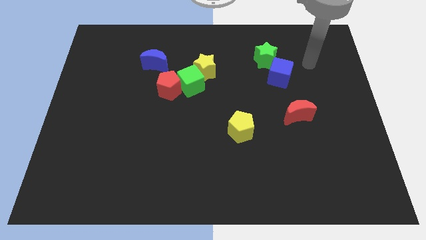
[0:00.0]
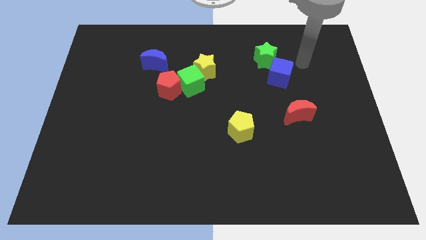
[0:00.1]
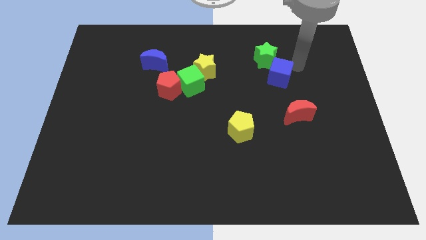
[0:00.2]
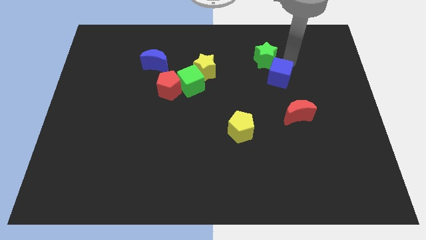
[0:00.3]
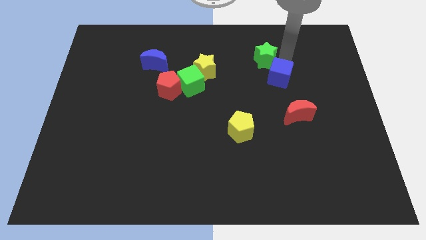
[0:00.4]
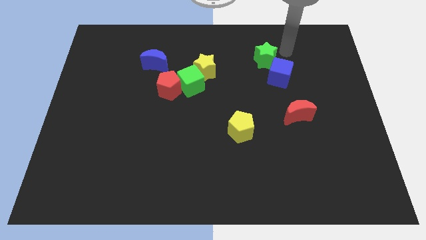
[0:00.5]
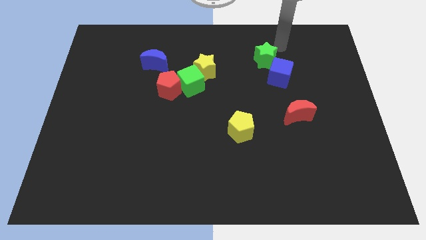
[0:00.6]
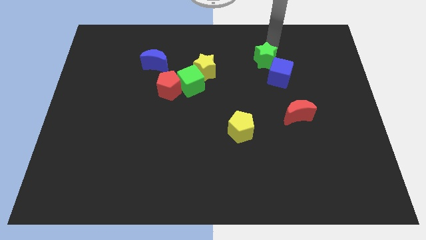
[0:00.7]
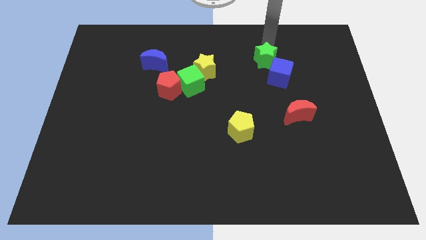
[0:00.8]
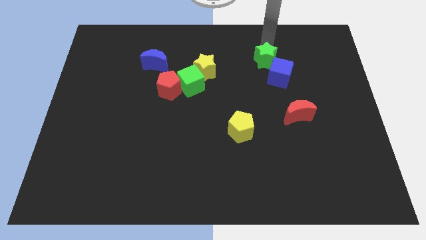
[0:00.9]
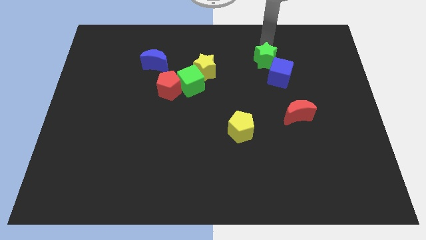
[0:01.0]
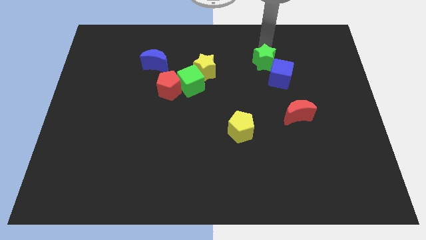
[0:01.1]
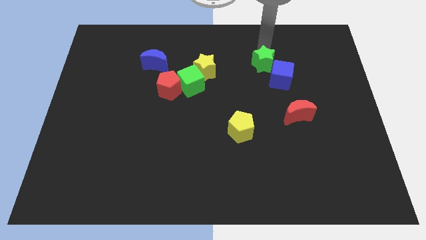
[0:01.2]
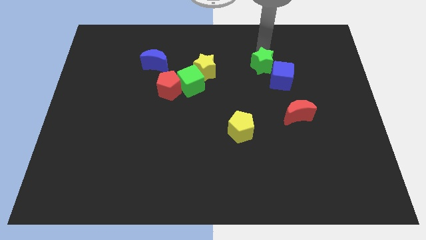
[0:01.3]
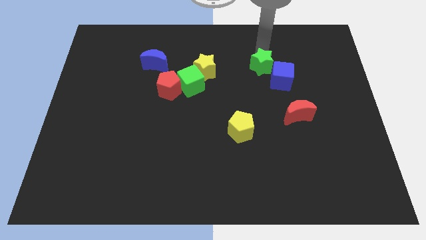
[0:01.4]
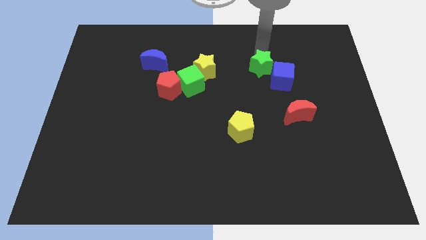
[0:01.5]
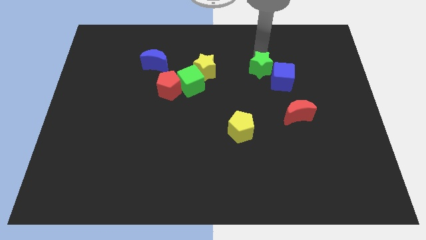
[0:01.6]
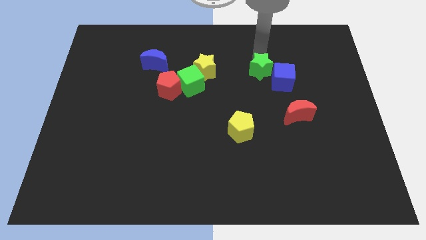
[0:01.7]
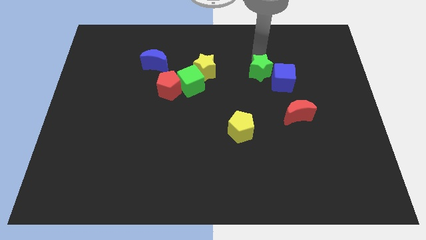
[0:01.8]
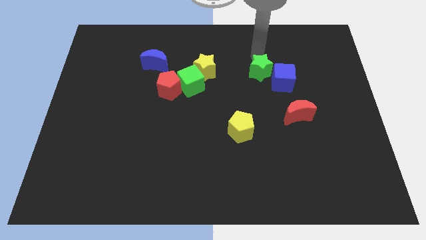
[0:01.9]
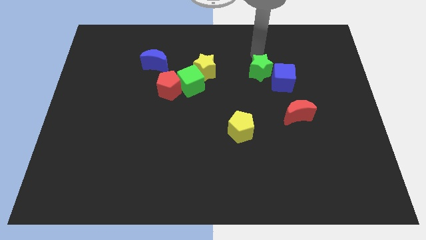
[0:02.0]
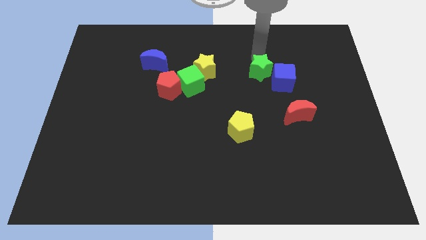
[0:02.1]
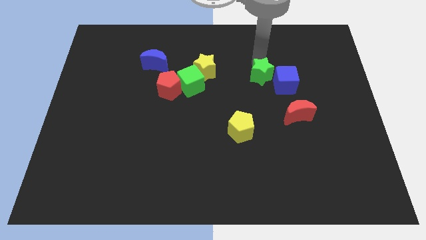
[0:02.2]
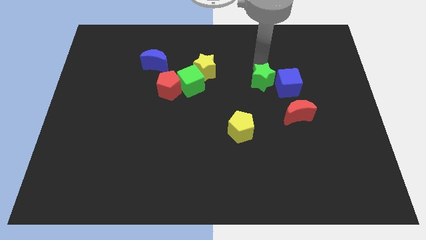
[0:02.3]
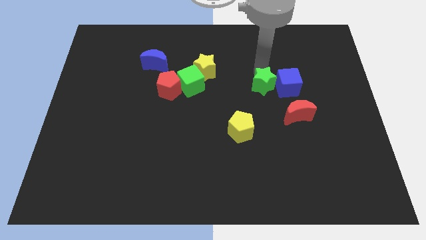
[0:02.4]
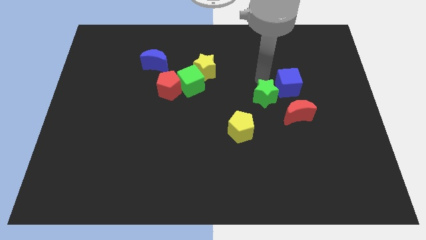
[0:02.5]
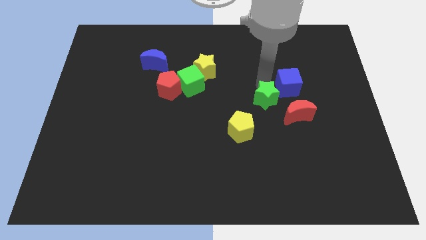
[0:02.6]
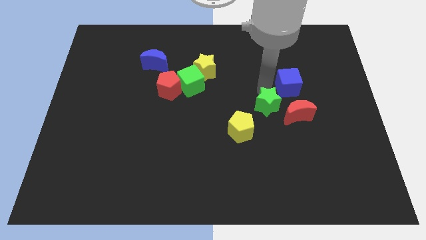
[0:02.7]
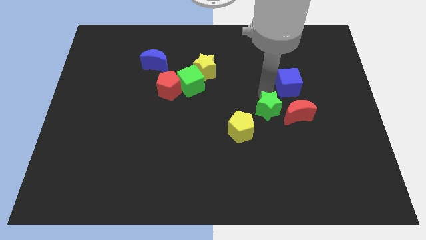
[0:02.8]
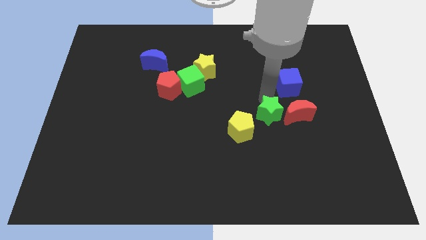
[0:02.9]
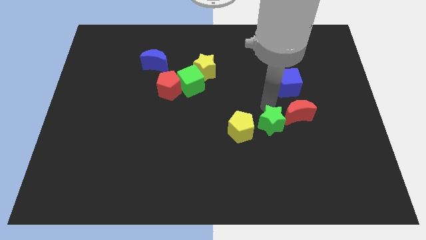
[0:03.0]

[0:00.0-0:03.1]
push the green star down

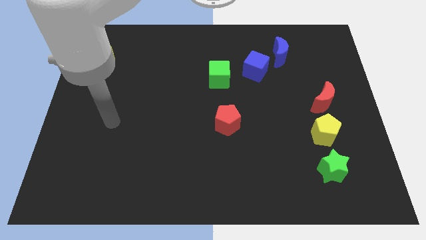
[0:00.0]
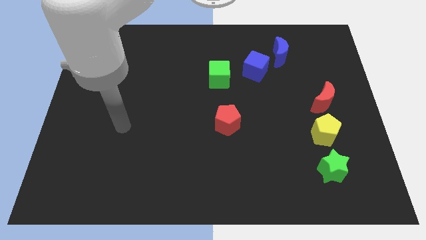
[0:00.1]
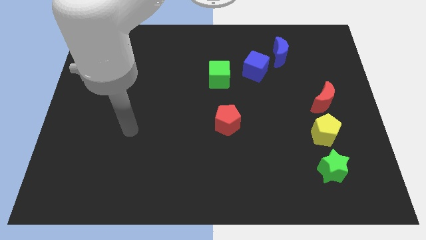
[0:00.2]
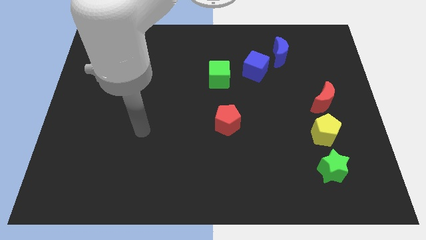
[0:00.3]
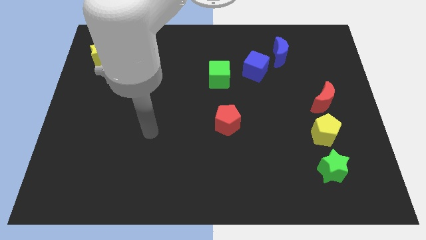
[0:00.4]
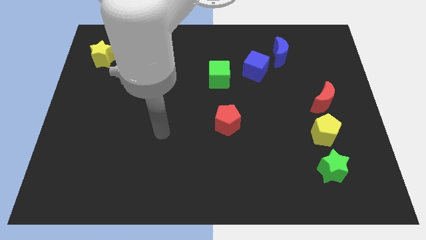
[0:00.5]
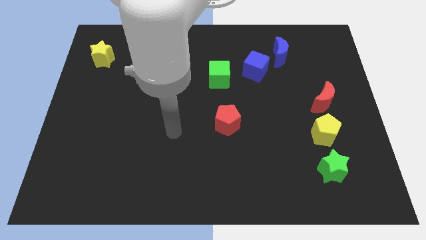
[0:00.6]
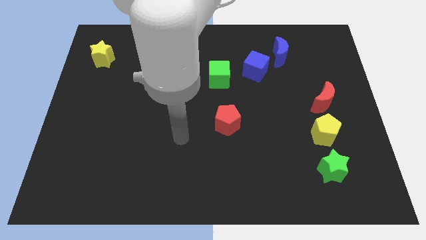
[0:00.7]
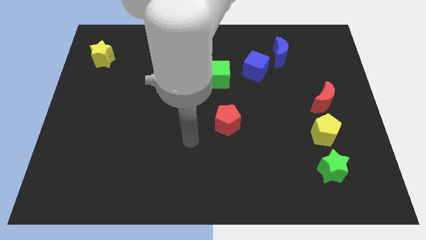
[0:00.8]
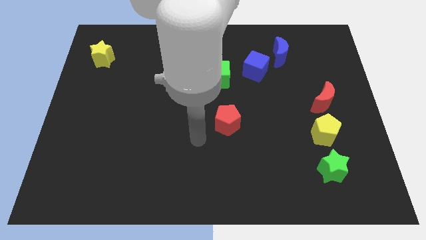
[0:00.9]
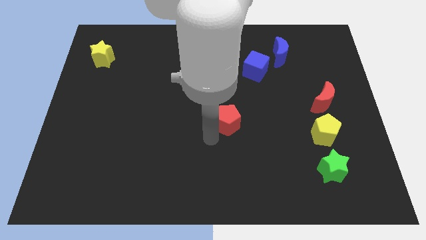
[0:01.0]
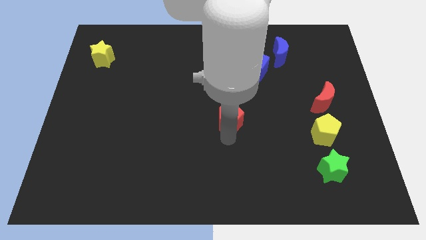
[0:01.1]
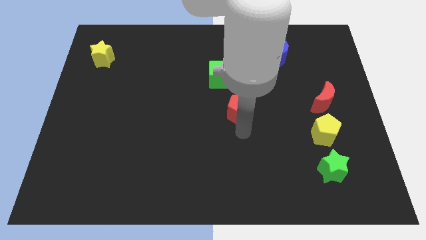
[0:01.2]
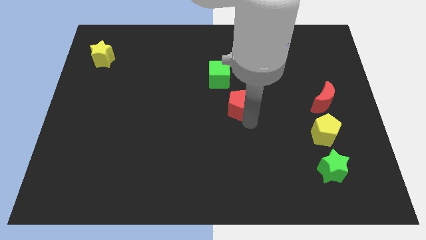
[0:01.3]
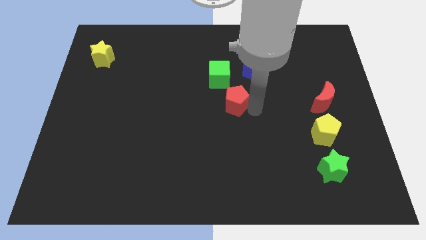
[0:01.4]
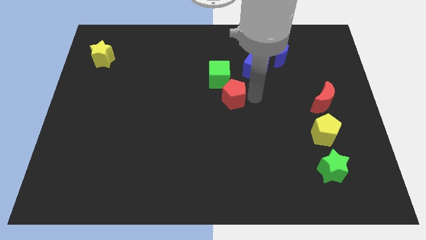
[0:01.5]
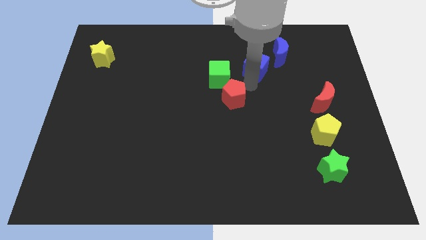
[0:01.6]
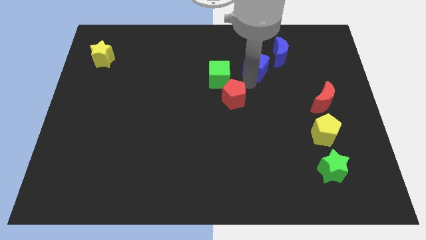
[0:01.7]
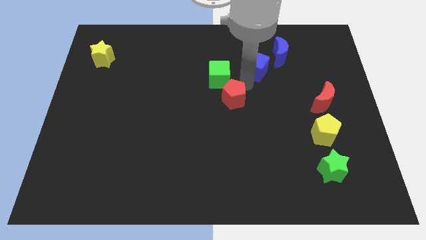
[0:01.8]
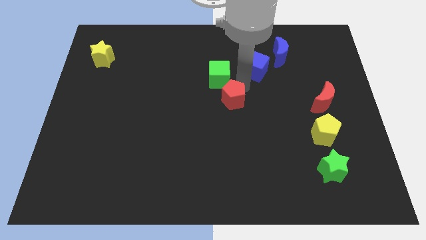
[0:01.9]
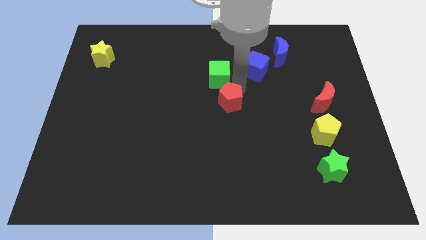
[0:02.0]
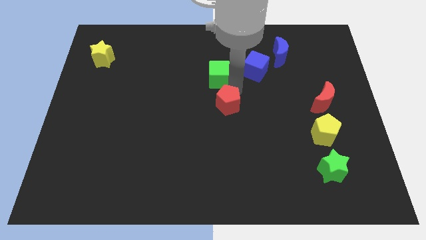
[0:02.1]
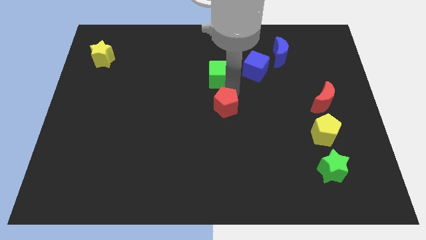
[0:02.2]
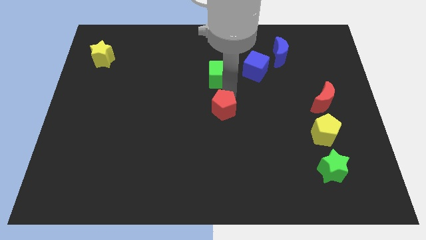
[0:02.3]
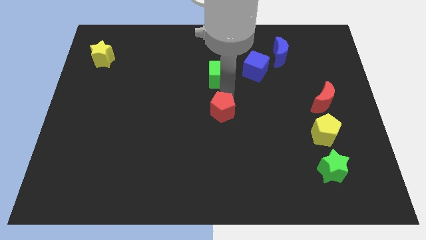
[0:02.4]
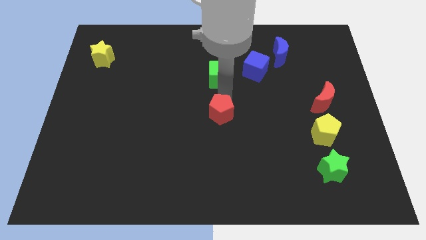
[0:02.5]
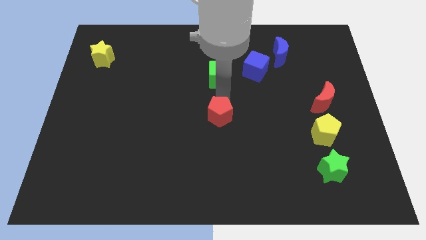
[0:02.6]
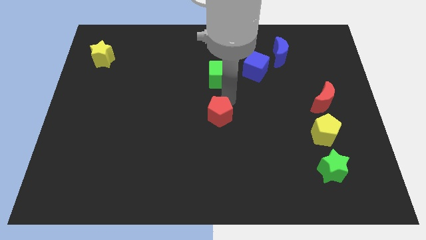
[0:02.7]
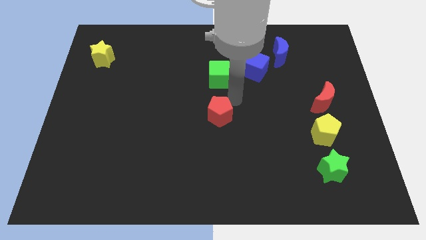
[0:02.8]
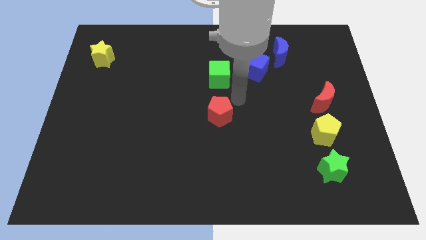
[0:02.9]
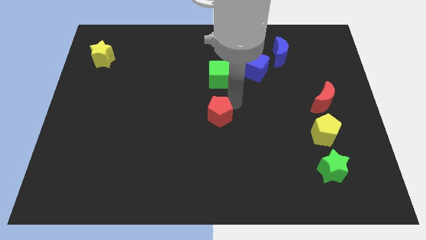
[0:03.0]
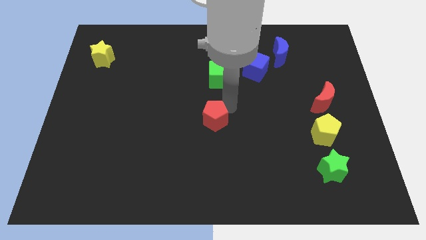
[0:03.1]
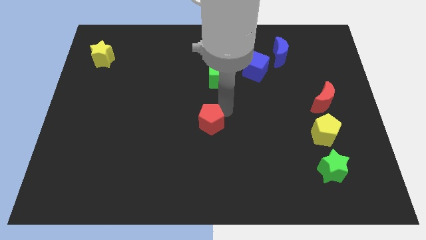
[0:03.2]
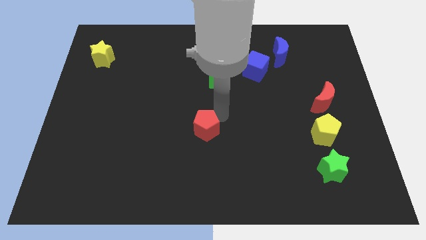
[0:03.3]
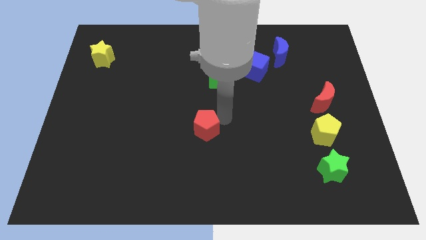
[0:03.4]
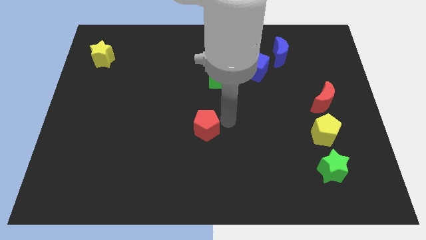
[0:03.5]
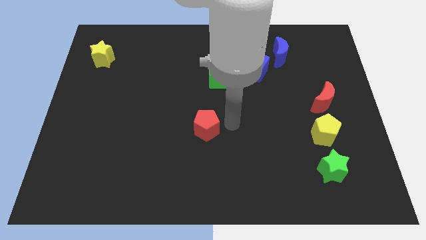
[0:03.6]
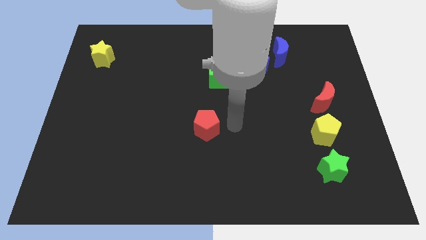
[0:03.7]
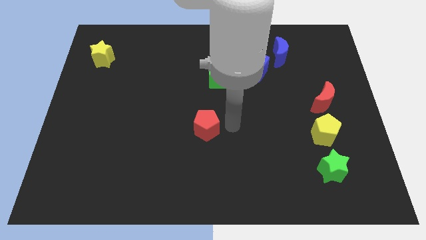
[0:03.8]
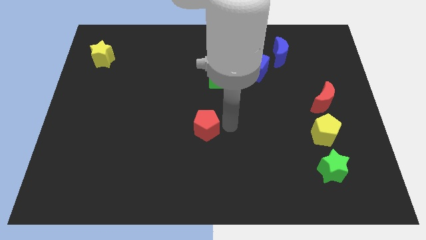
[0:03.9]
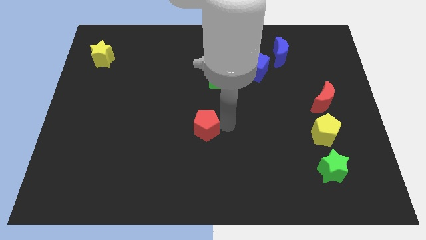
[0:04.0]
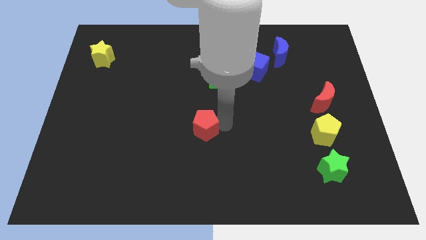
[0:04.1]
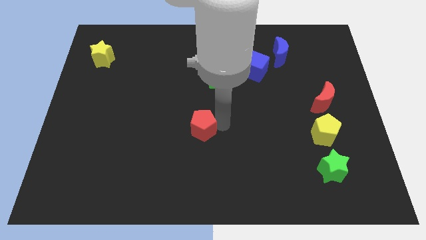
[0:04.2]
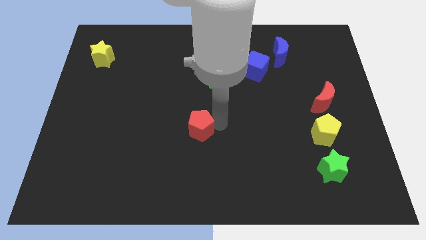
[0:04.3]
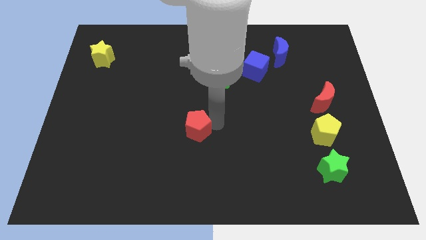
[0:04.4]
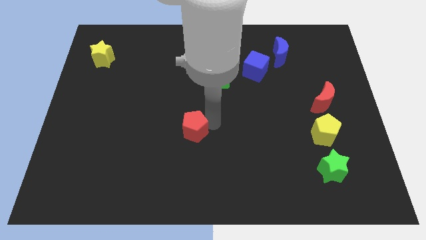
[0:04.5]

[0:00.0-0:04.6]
move the red pentagon to the left somewhat

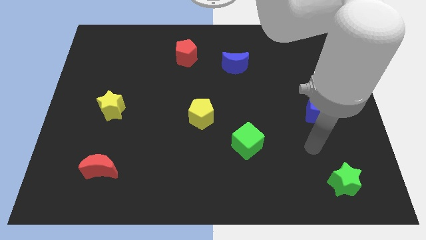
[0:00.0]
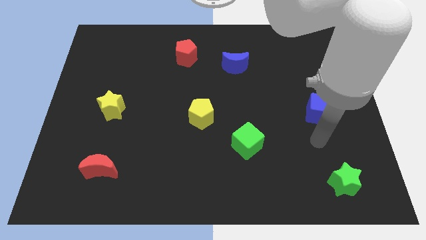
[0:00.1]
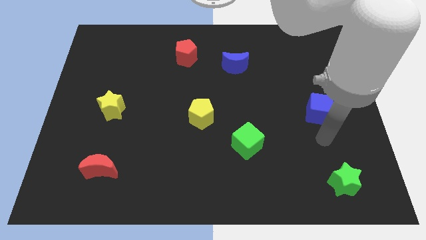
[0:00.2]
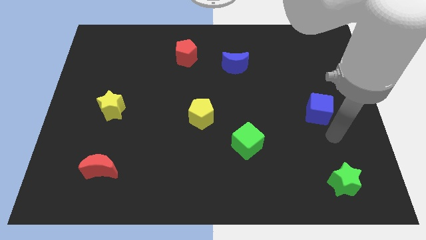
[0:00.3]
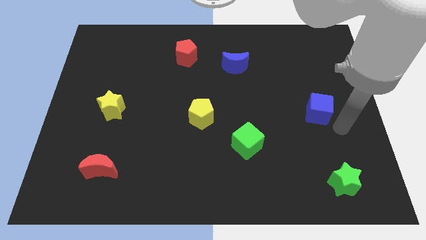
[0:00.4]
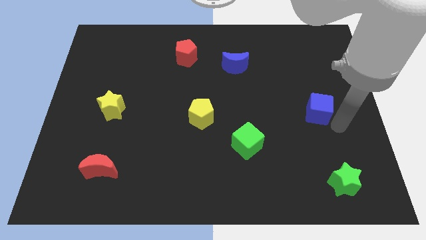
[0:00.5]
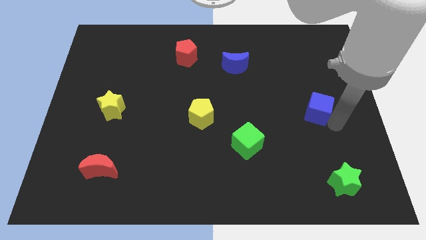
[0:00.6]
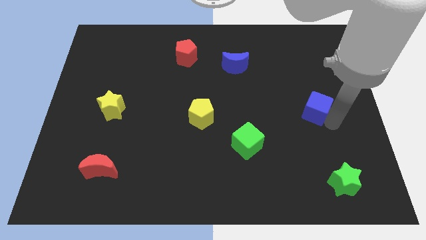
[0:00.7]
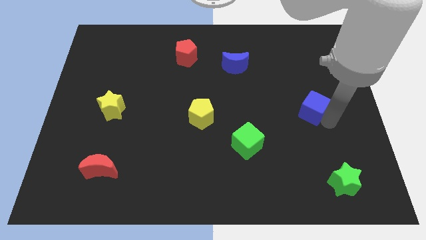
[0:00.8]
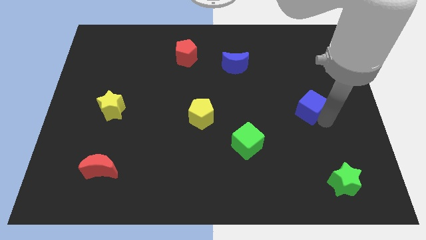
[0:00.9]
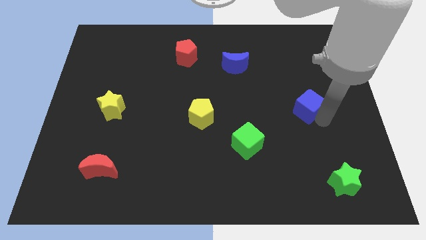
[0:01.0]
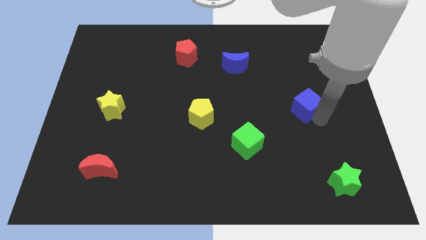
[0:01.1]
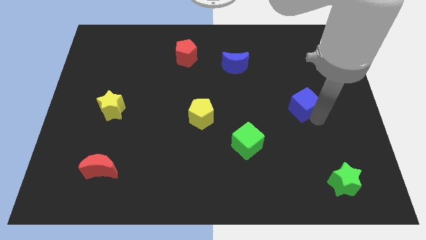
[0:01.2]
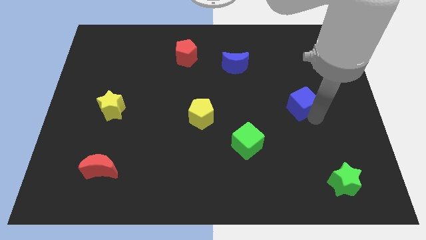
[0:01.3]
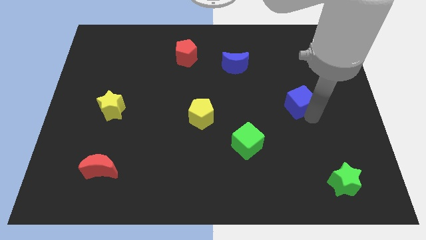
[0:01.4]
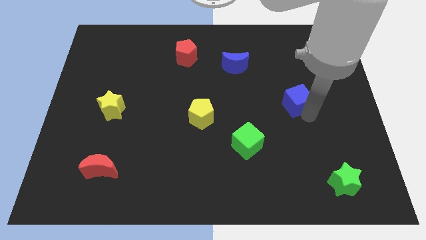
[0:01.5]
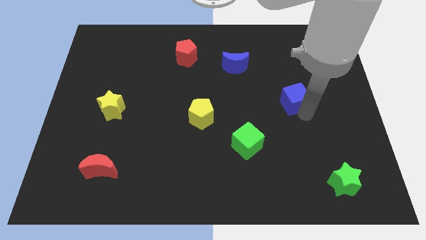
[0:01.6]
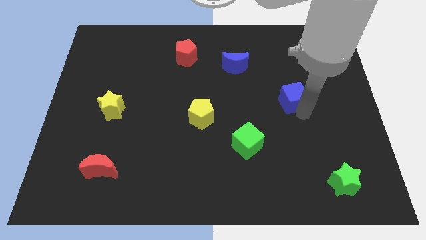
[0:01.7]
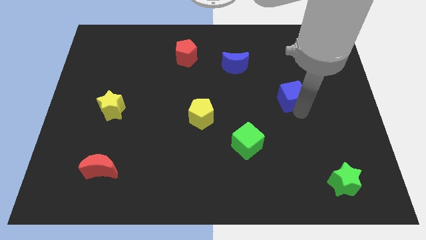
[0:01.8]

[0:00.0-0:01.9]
move the blue cube up and then left somewhat
